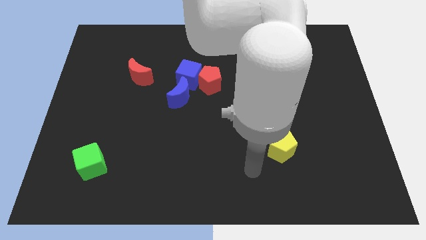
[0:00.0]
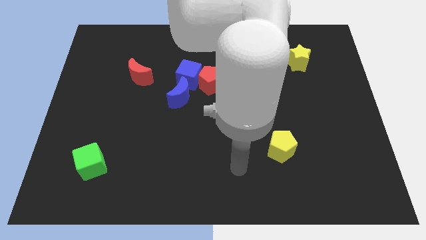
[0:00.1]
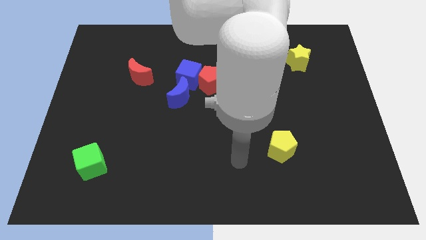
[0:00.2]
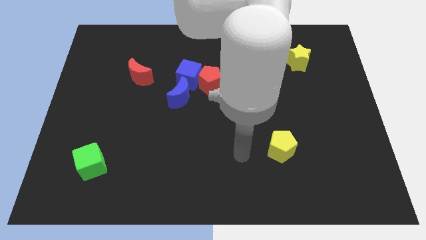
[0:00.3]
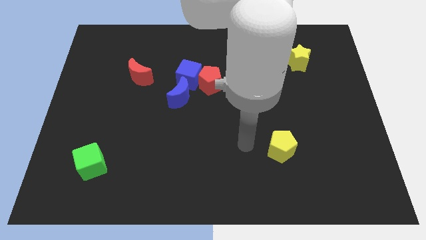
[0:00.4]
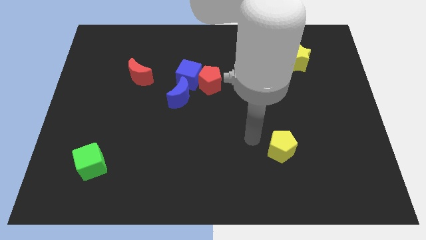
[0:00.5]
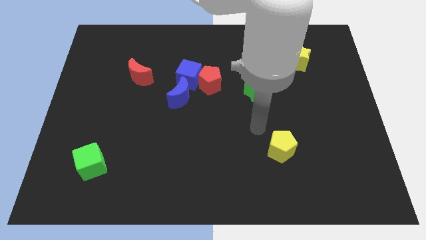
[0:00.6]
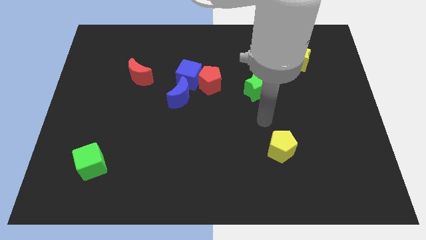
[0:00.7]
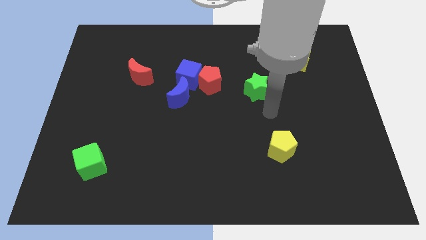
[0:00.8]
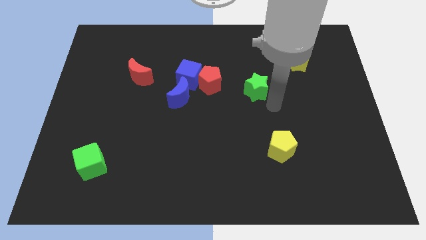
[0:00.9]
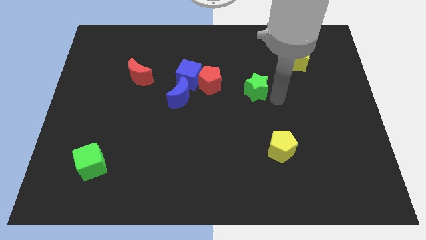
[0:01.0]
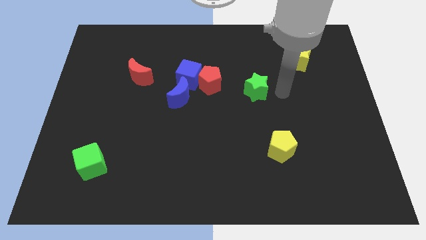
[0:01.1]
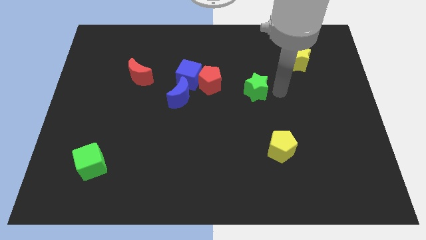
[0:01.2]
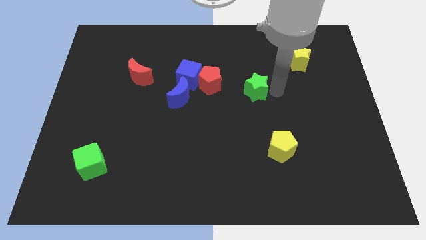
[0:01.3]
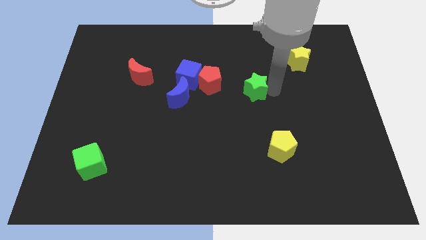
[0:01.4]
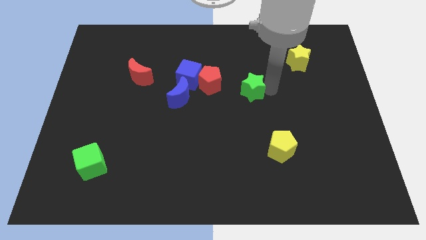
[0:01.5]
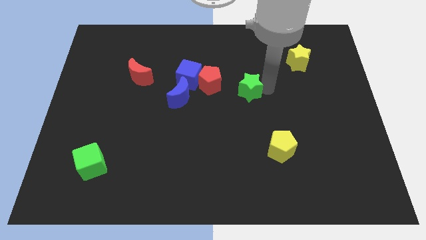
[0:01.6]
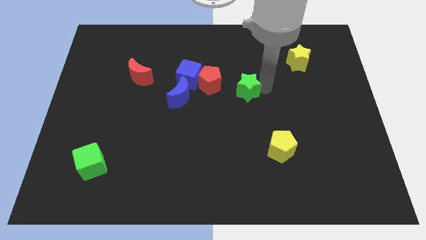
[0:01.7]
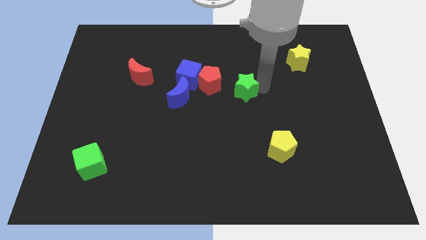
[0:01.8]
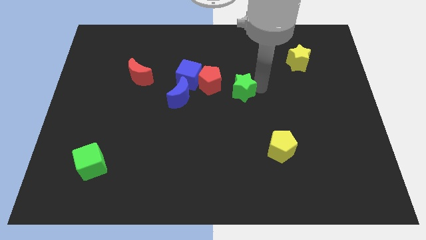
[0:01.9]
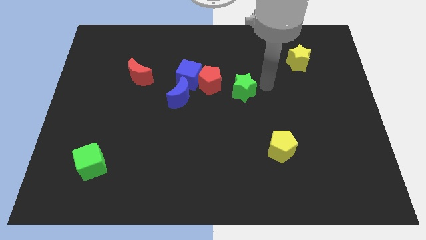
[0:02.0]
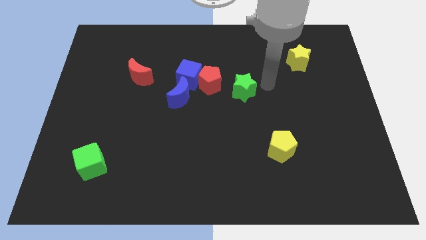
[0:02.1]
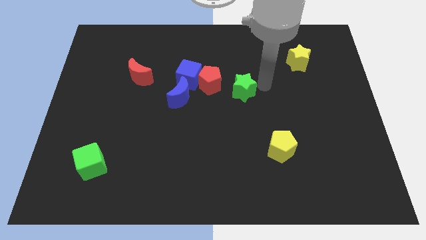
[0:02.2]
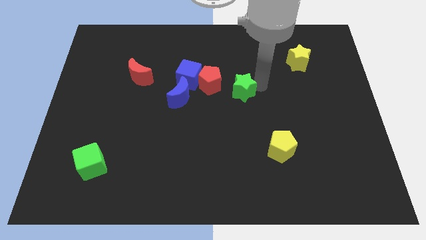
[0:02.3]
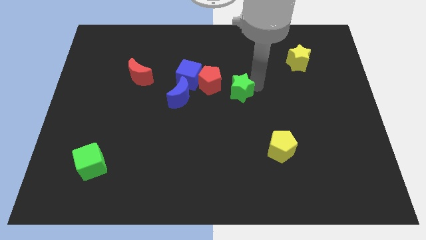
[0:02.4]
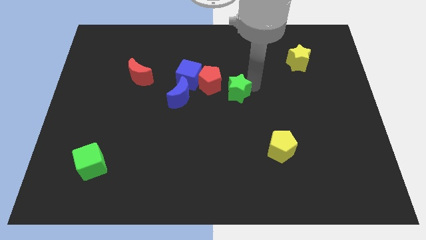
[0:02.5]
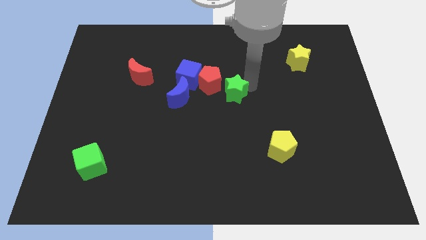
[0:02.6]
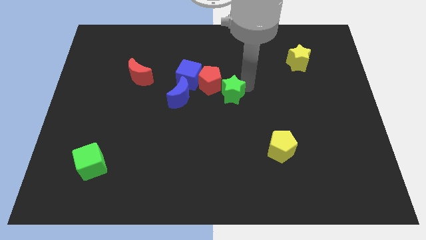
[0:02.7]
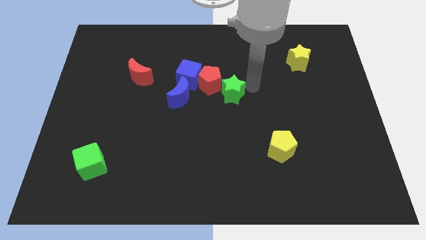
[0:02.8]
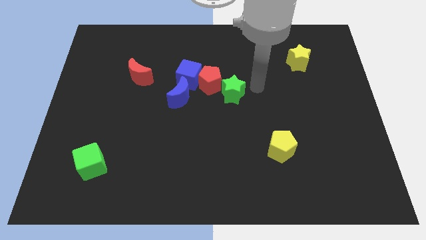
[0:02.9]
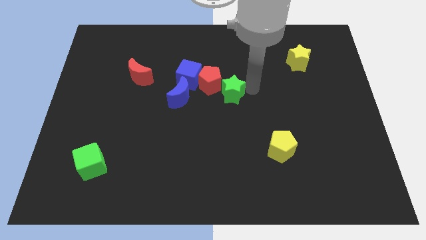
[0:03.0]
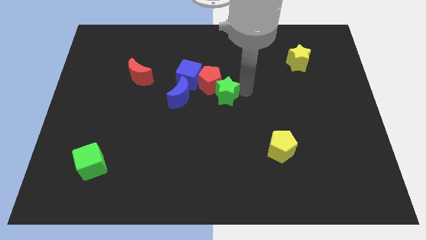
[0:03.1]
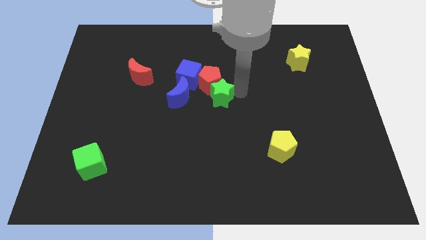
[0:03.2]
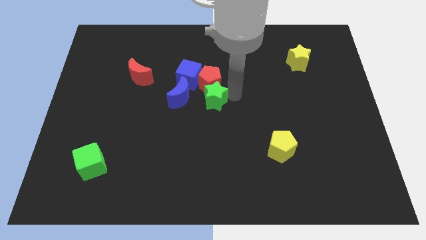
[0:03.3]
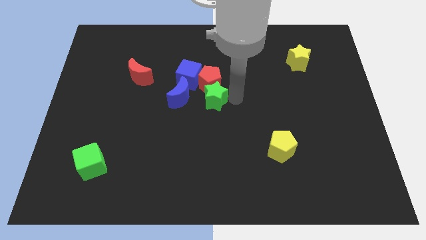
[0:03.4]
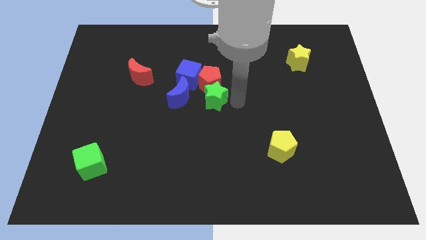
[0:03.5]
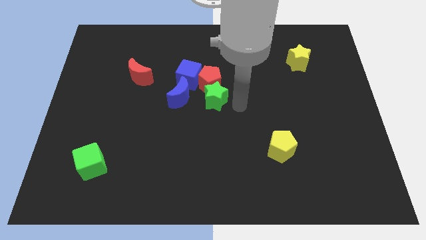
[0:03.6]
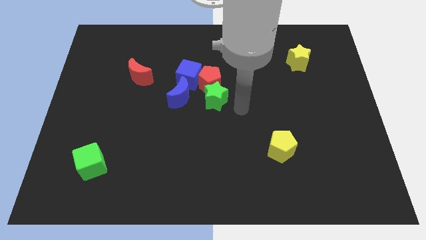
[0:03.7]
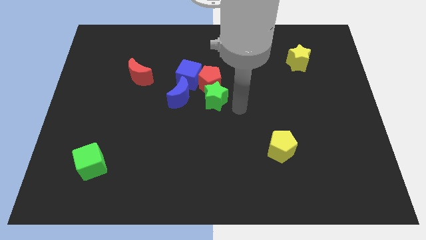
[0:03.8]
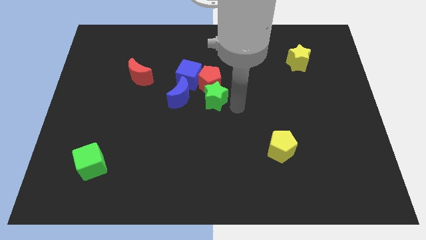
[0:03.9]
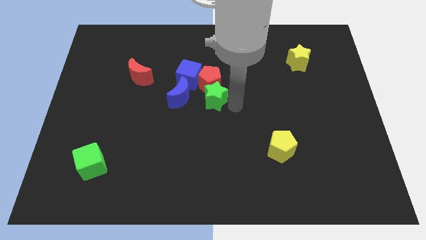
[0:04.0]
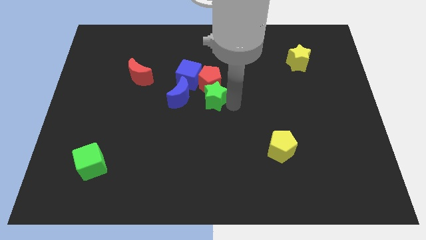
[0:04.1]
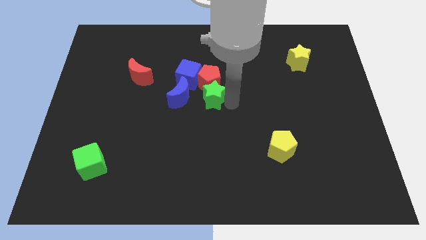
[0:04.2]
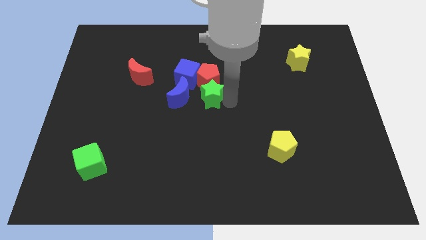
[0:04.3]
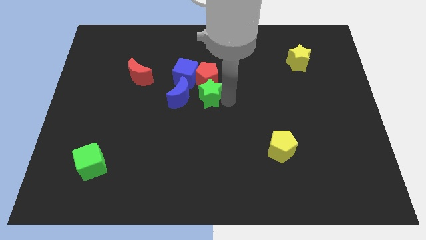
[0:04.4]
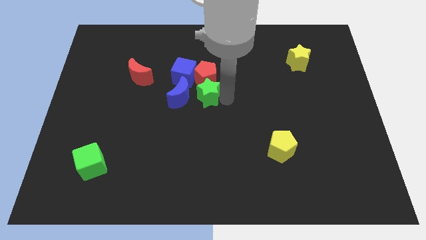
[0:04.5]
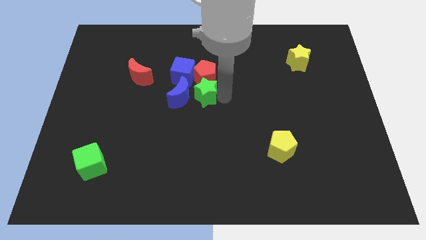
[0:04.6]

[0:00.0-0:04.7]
put the green star to the blue moon

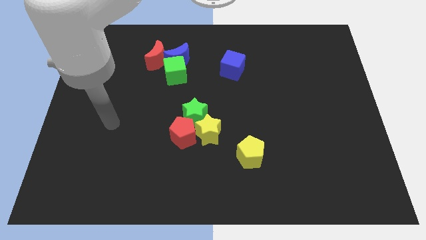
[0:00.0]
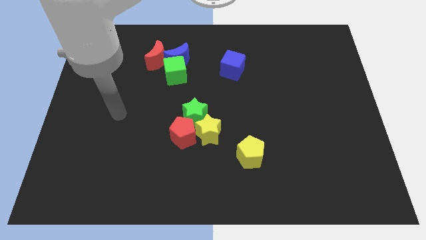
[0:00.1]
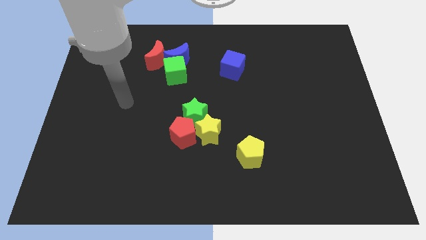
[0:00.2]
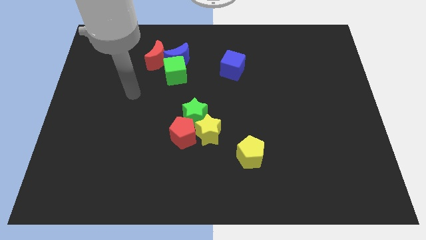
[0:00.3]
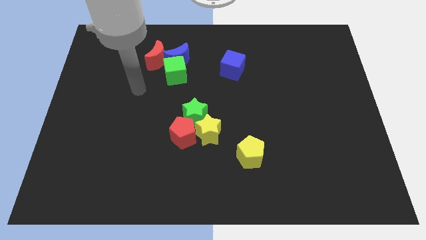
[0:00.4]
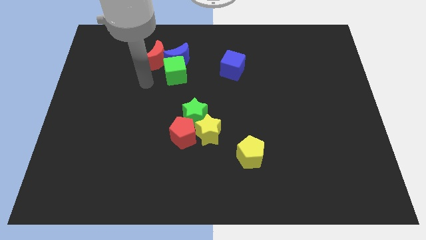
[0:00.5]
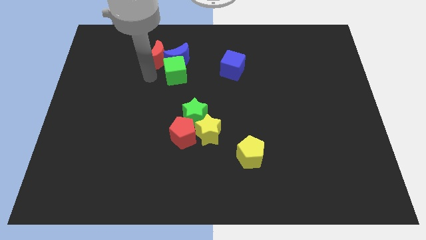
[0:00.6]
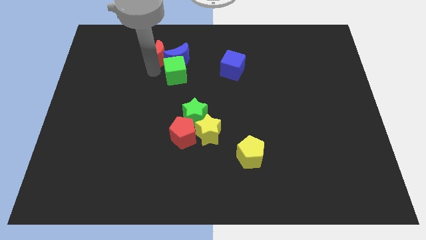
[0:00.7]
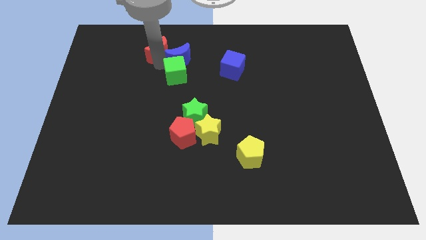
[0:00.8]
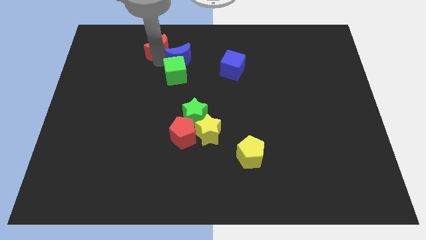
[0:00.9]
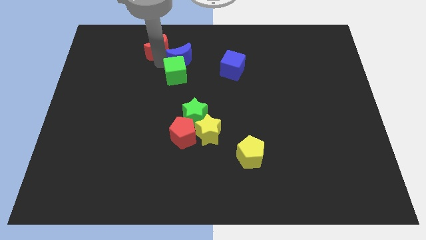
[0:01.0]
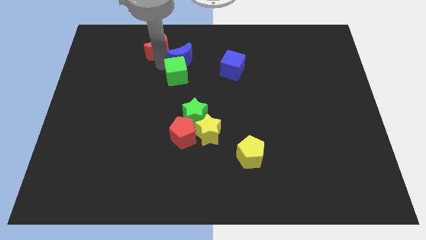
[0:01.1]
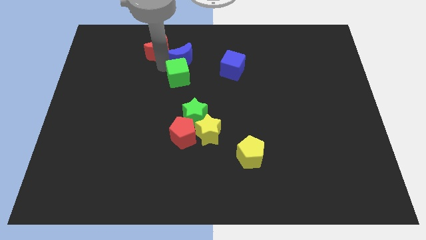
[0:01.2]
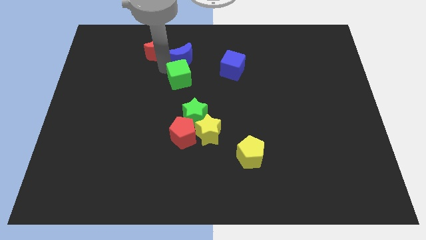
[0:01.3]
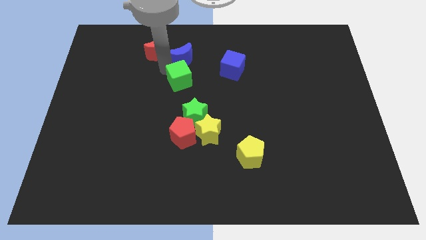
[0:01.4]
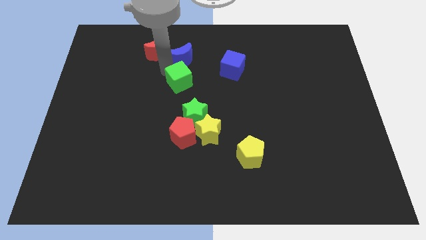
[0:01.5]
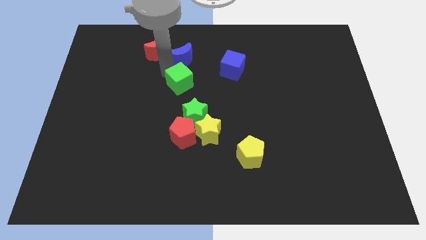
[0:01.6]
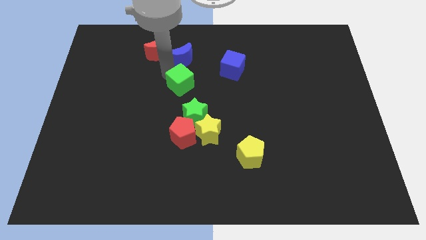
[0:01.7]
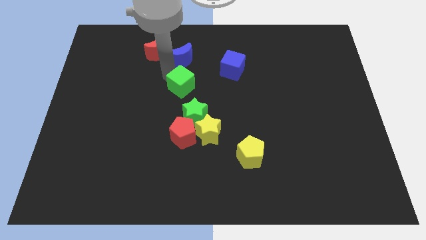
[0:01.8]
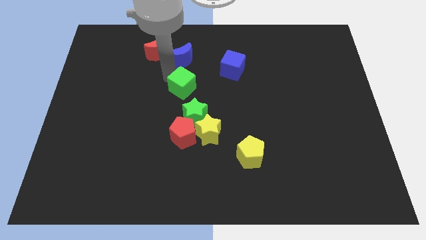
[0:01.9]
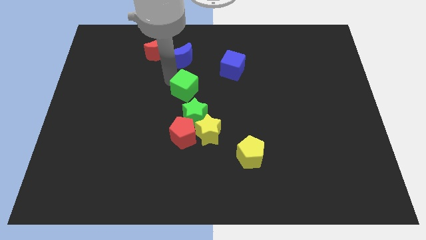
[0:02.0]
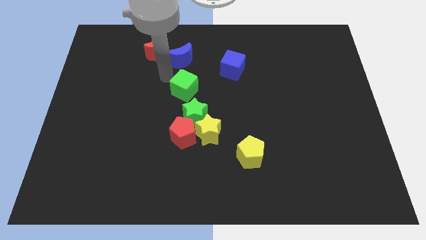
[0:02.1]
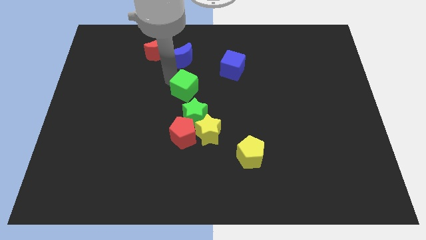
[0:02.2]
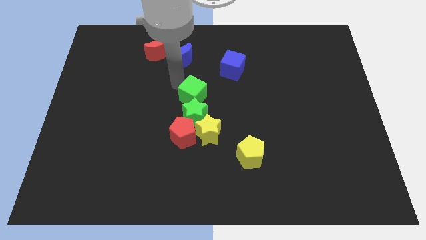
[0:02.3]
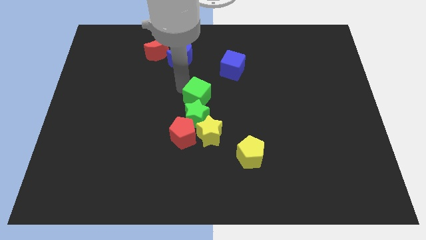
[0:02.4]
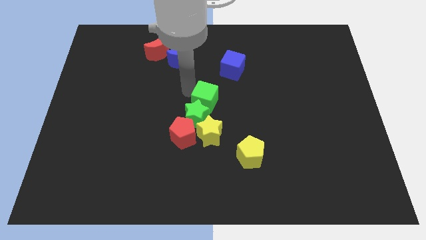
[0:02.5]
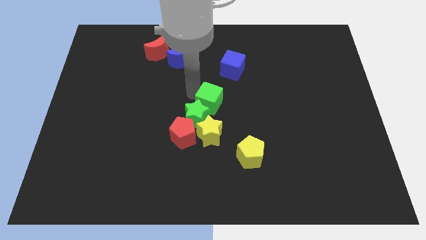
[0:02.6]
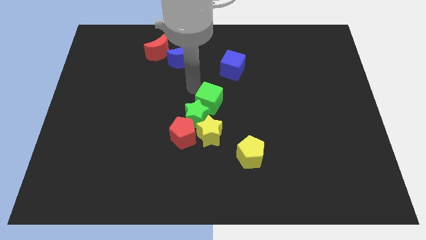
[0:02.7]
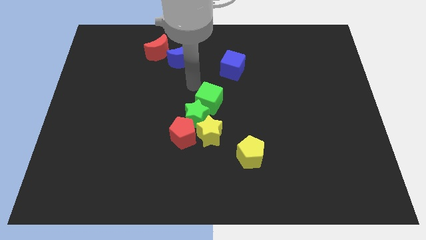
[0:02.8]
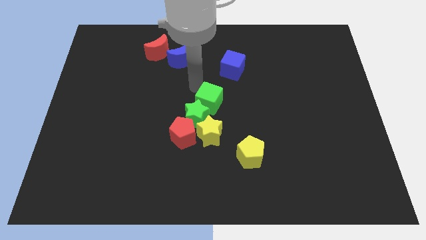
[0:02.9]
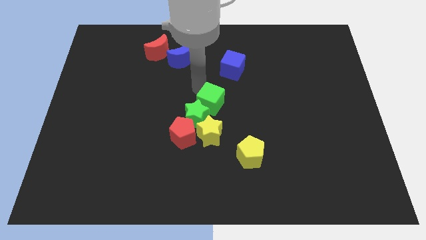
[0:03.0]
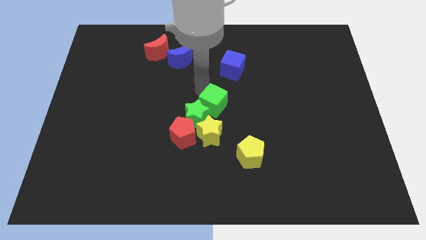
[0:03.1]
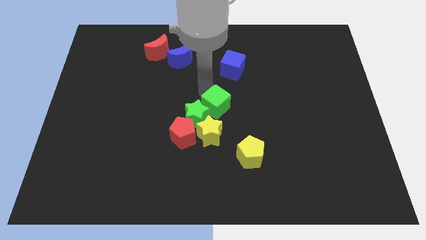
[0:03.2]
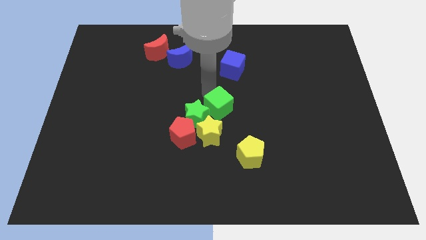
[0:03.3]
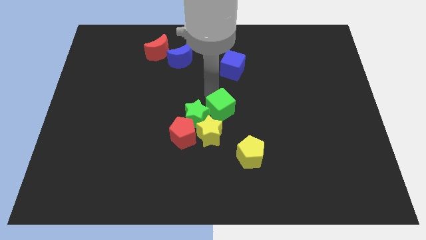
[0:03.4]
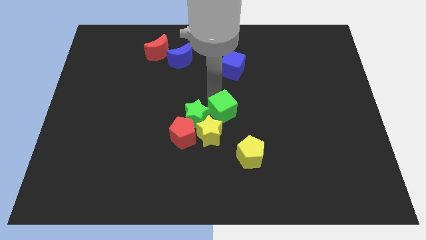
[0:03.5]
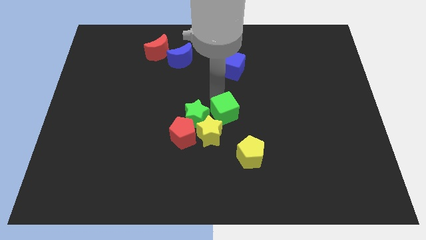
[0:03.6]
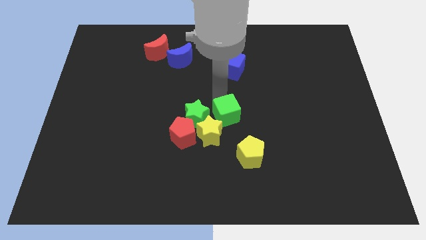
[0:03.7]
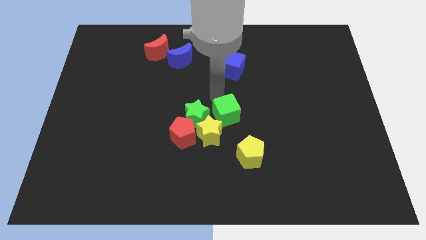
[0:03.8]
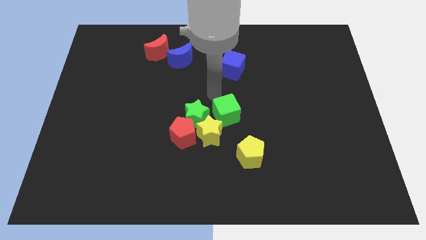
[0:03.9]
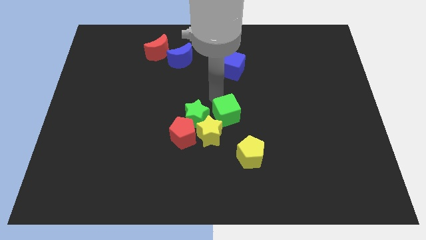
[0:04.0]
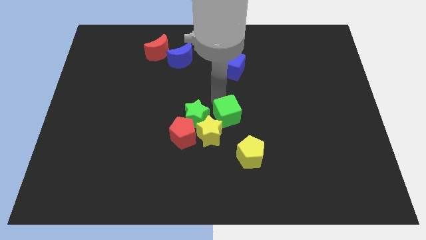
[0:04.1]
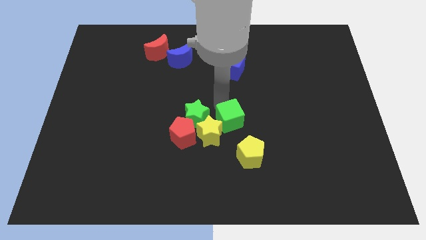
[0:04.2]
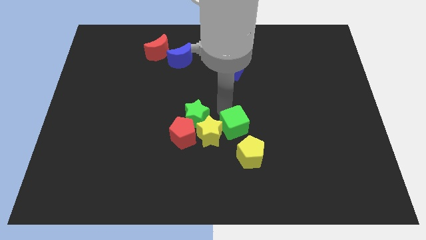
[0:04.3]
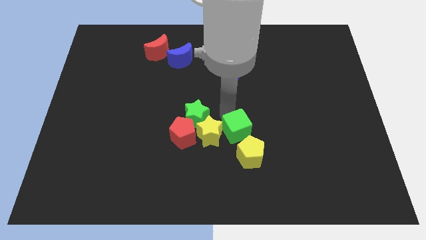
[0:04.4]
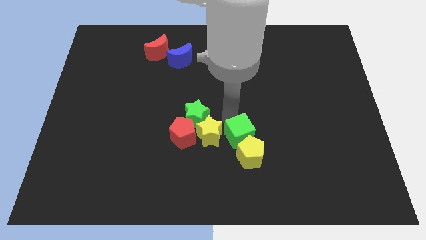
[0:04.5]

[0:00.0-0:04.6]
move the green cube close to the yellow pentagon
